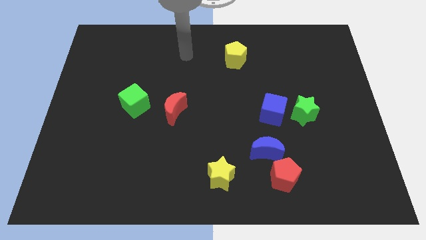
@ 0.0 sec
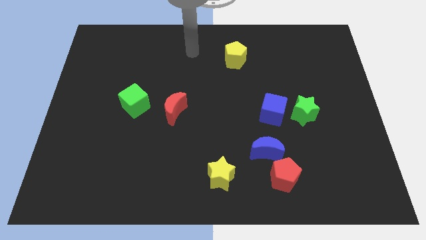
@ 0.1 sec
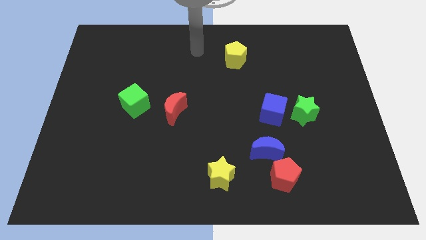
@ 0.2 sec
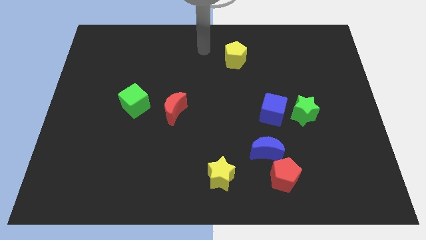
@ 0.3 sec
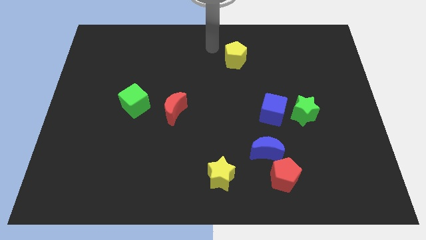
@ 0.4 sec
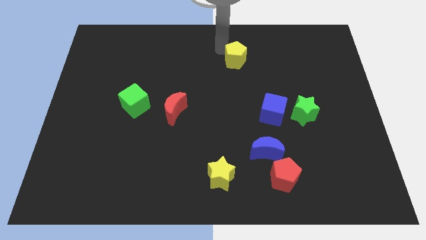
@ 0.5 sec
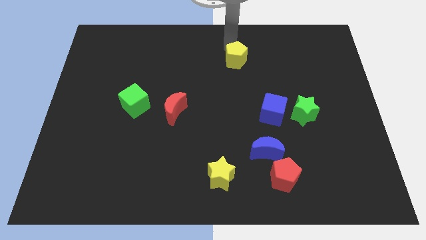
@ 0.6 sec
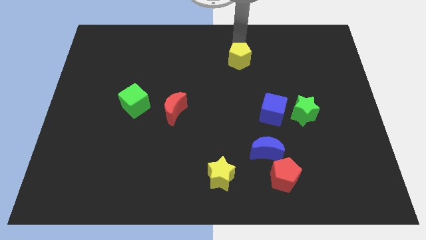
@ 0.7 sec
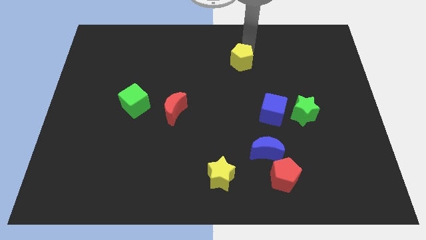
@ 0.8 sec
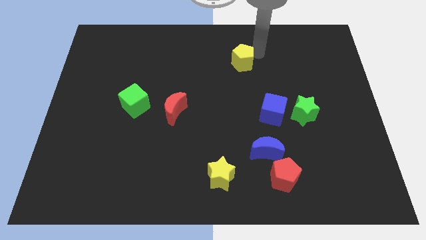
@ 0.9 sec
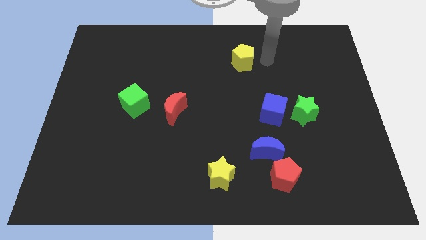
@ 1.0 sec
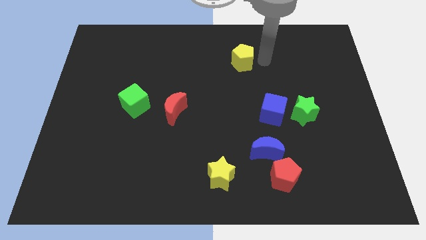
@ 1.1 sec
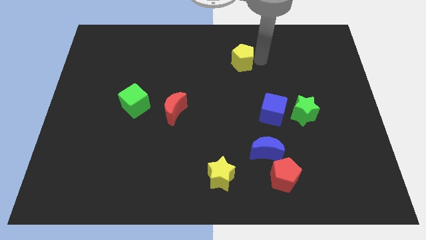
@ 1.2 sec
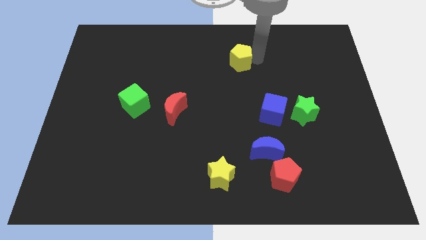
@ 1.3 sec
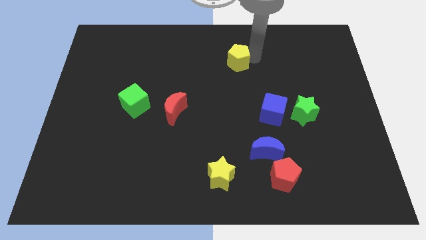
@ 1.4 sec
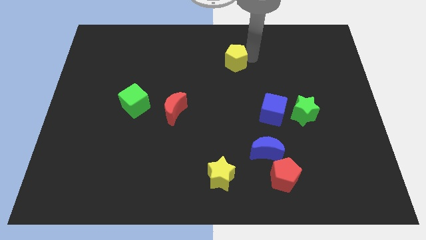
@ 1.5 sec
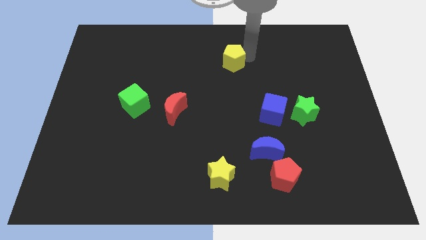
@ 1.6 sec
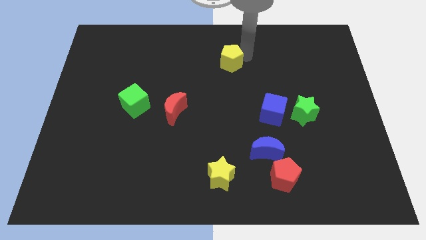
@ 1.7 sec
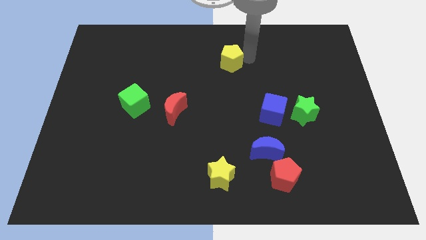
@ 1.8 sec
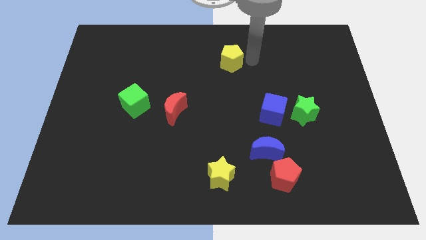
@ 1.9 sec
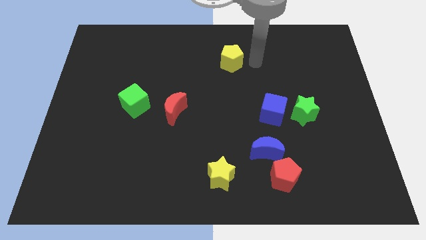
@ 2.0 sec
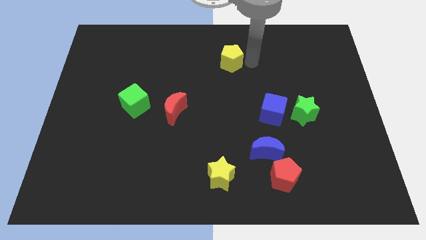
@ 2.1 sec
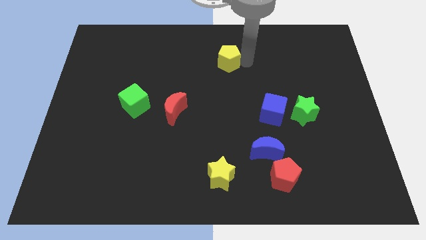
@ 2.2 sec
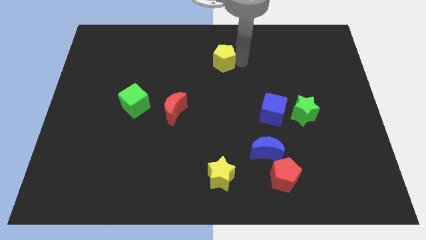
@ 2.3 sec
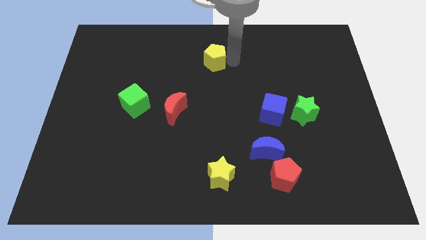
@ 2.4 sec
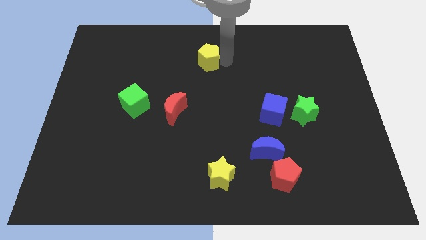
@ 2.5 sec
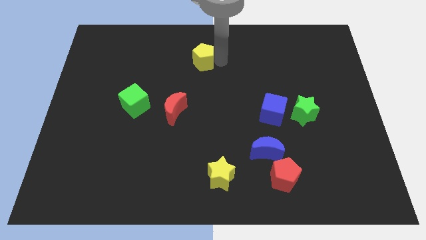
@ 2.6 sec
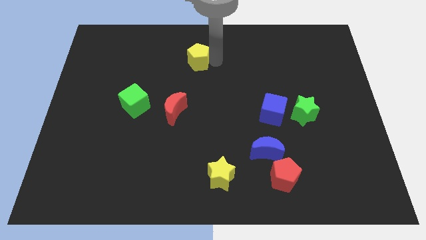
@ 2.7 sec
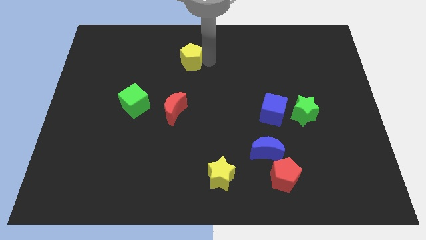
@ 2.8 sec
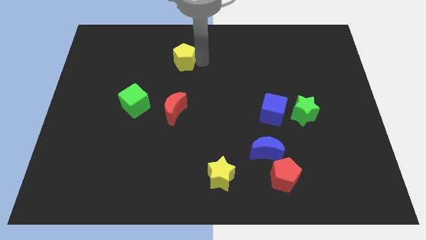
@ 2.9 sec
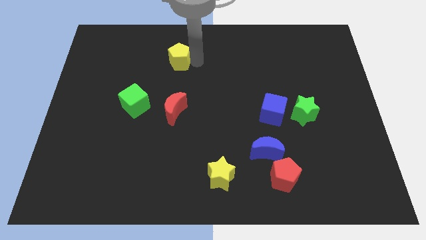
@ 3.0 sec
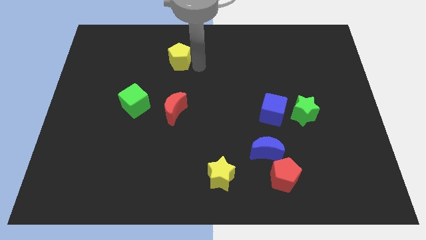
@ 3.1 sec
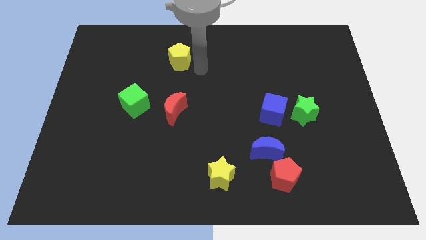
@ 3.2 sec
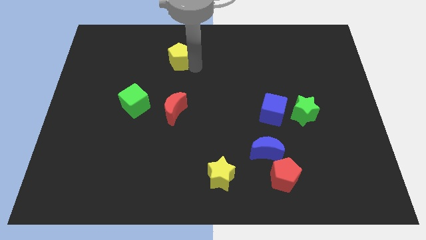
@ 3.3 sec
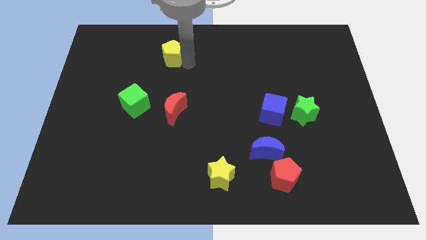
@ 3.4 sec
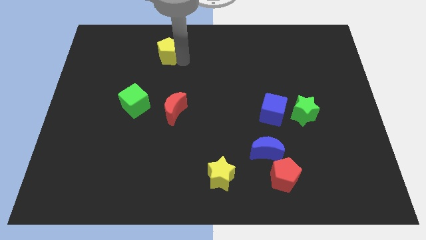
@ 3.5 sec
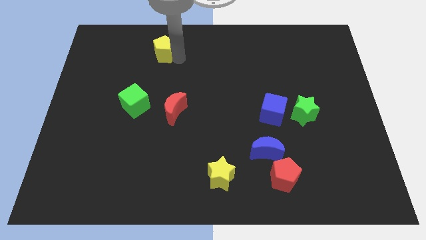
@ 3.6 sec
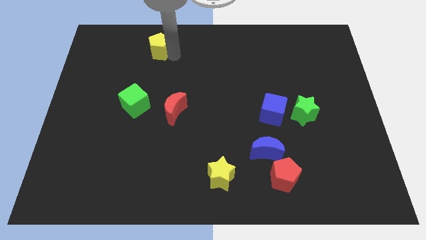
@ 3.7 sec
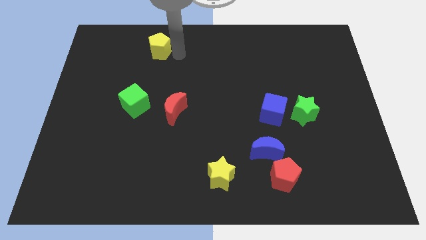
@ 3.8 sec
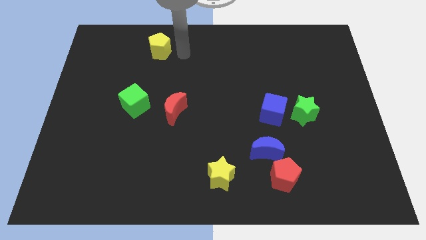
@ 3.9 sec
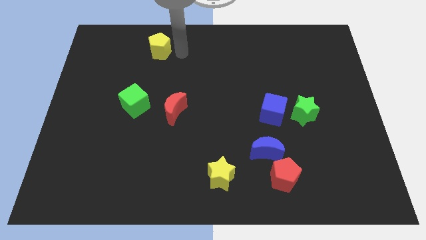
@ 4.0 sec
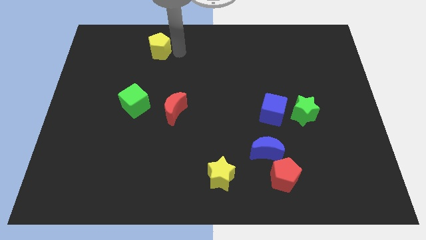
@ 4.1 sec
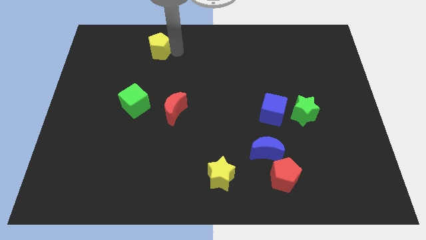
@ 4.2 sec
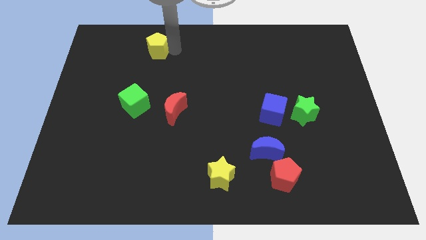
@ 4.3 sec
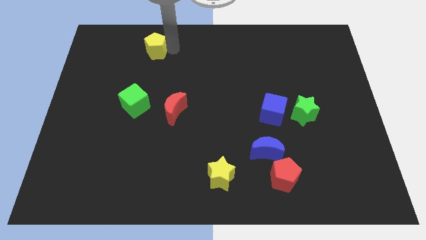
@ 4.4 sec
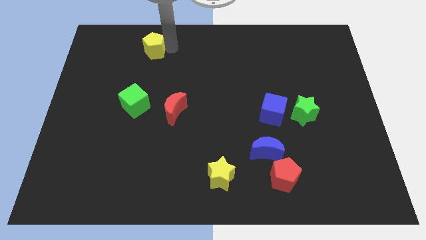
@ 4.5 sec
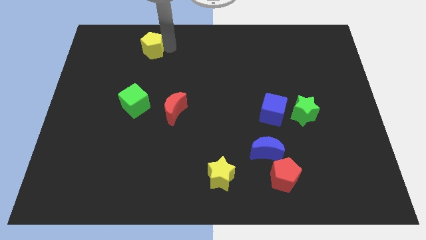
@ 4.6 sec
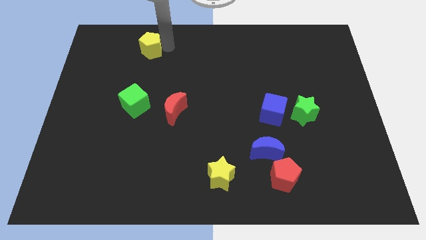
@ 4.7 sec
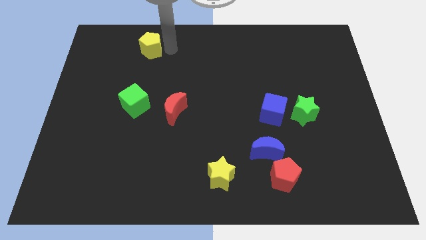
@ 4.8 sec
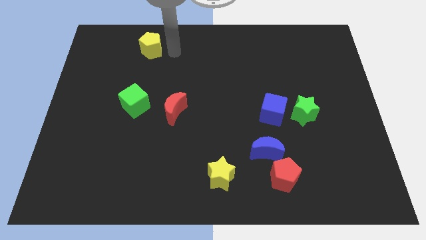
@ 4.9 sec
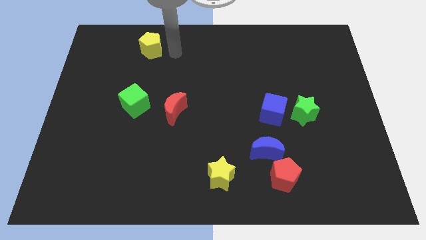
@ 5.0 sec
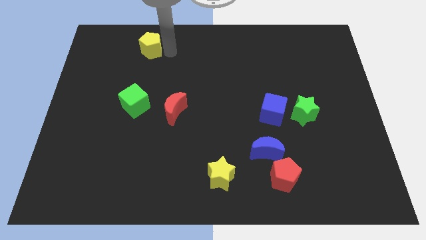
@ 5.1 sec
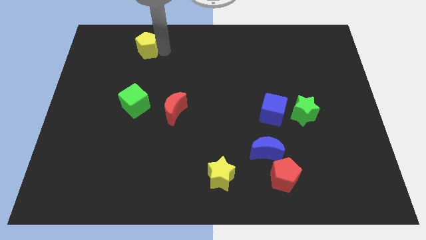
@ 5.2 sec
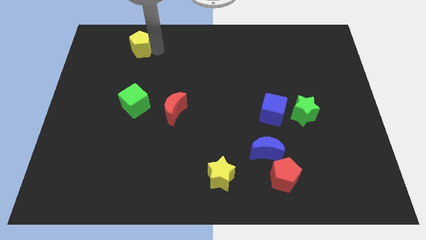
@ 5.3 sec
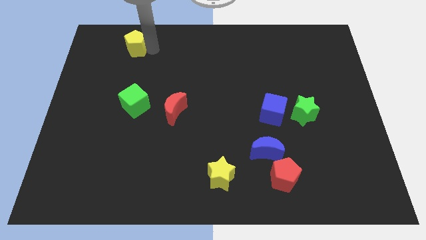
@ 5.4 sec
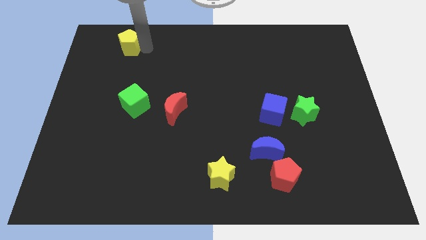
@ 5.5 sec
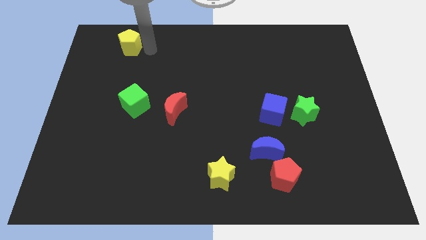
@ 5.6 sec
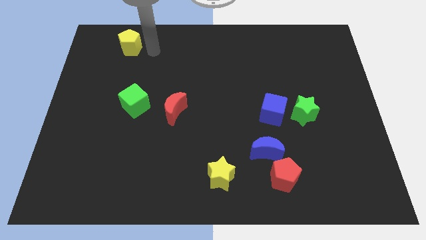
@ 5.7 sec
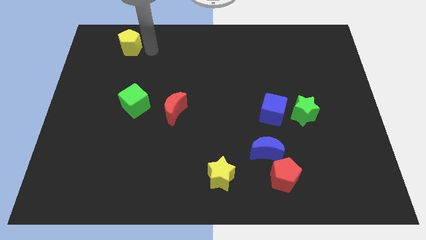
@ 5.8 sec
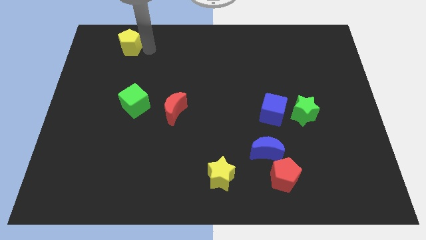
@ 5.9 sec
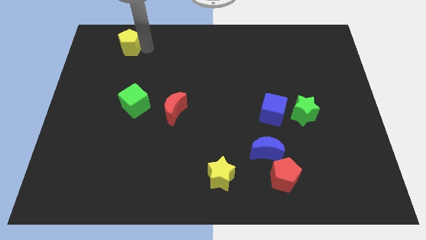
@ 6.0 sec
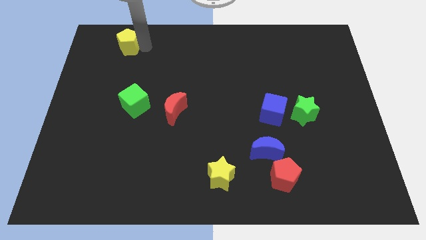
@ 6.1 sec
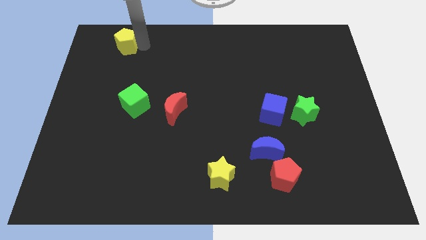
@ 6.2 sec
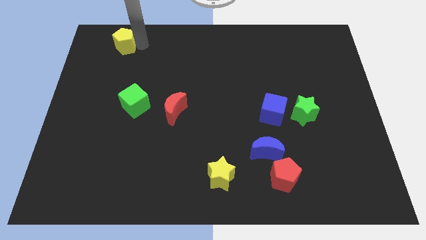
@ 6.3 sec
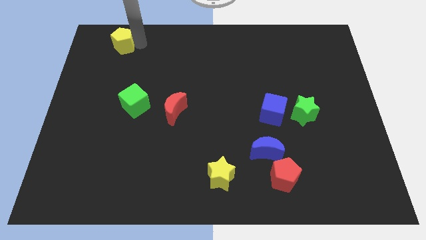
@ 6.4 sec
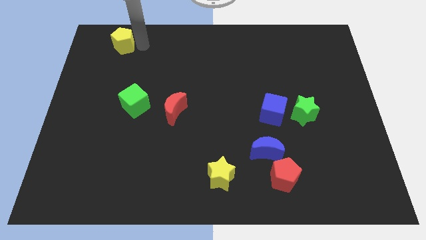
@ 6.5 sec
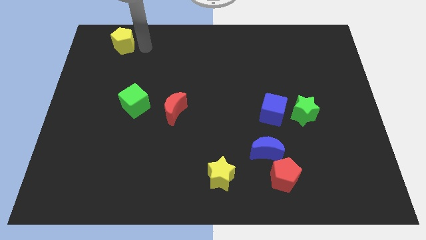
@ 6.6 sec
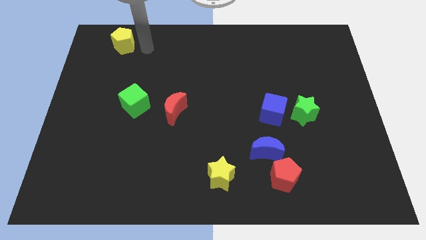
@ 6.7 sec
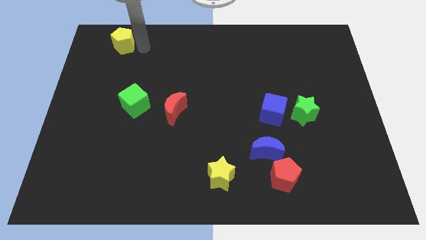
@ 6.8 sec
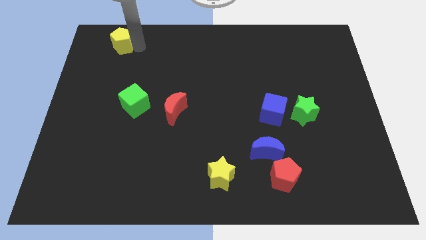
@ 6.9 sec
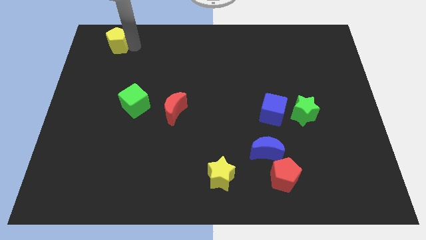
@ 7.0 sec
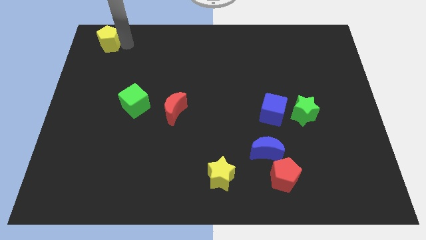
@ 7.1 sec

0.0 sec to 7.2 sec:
slide the yellow pentagon to the top left of the board
